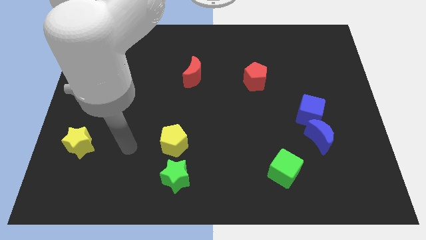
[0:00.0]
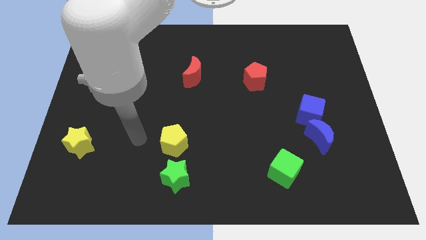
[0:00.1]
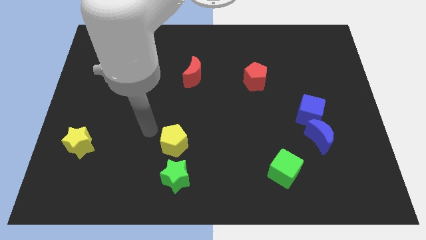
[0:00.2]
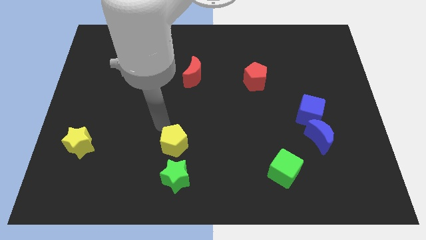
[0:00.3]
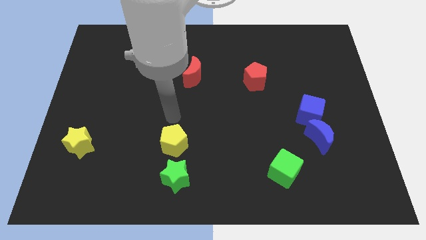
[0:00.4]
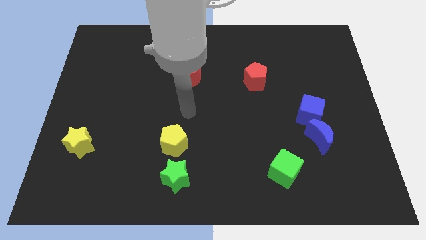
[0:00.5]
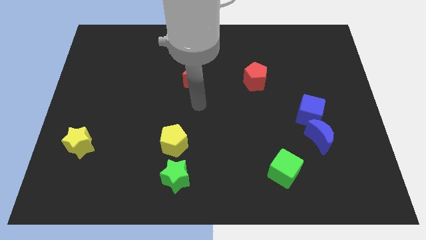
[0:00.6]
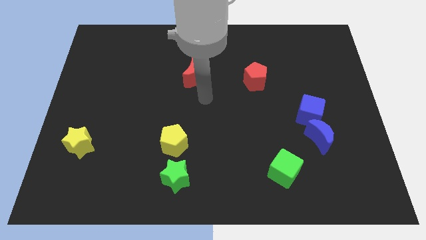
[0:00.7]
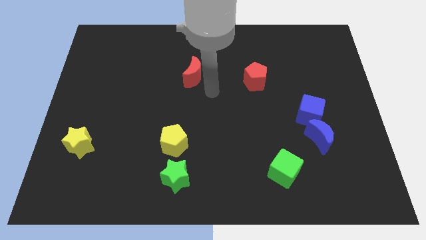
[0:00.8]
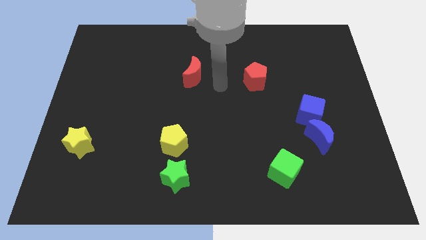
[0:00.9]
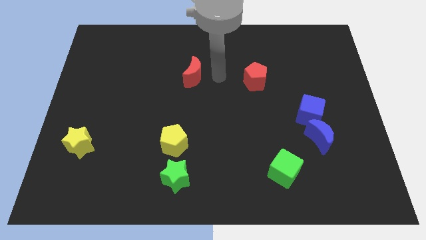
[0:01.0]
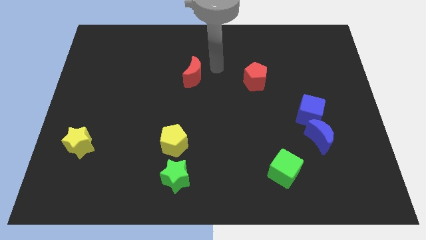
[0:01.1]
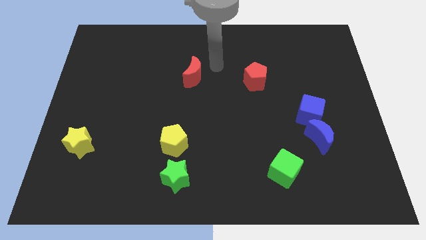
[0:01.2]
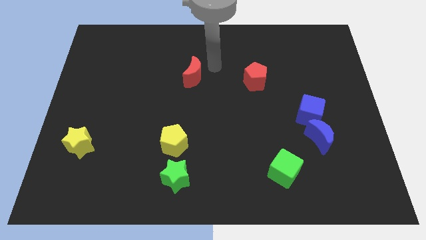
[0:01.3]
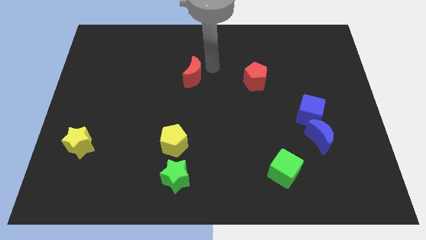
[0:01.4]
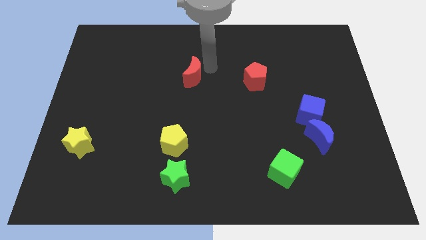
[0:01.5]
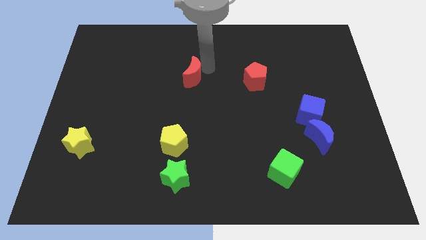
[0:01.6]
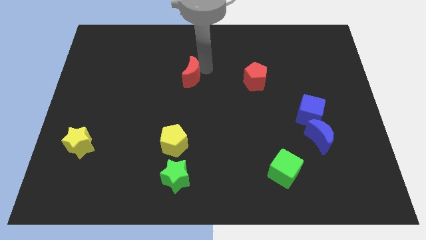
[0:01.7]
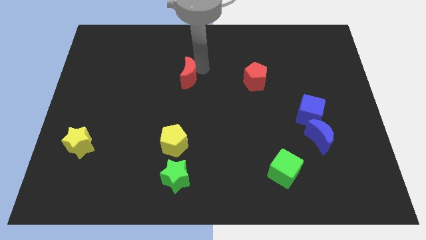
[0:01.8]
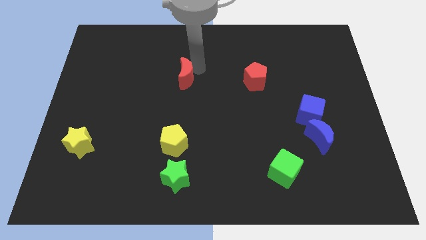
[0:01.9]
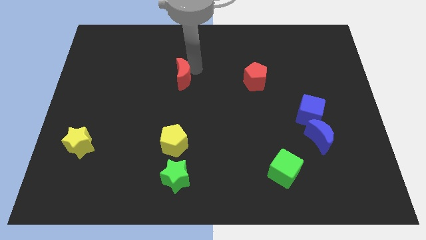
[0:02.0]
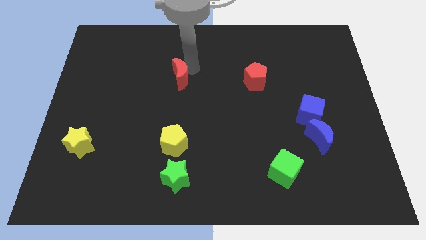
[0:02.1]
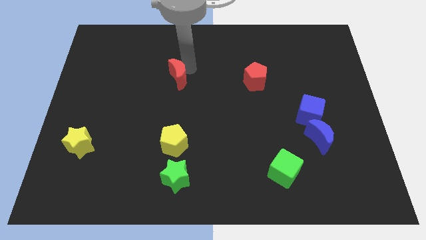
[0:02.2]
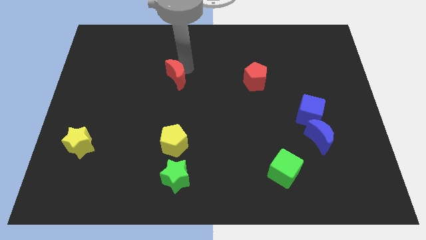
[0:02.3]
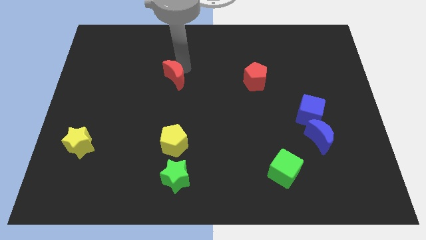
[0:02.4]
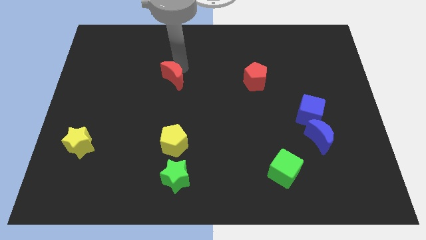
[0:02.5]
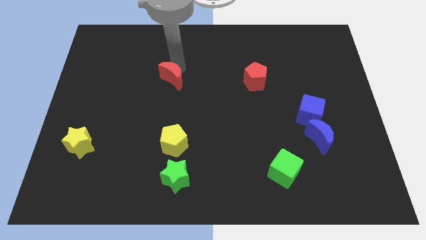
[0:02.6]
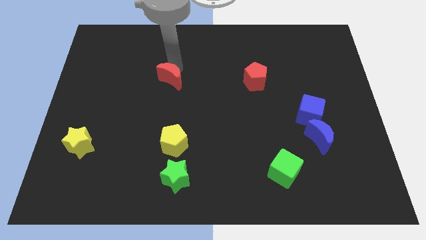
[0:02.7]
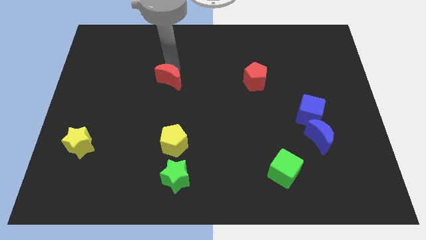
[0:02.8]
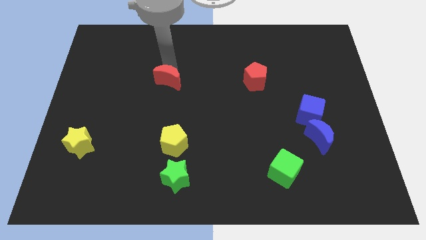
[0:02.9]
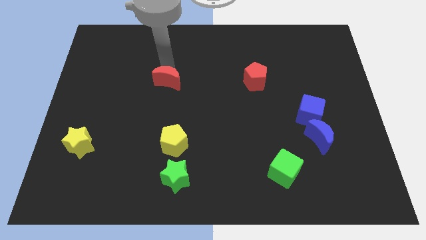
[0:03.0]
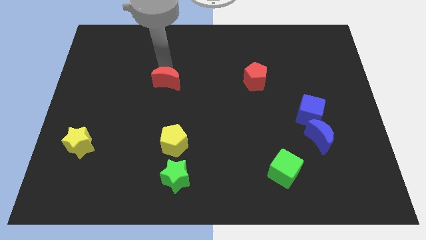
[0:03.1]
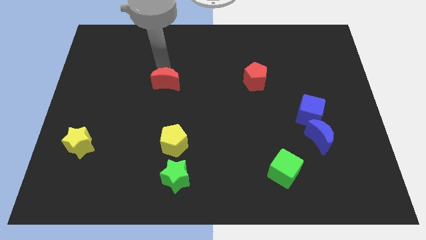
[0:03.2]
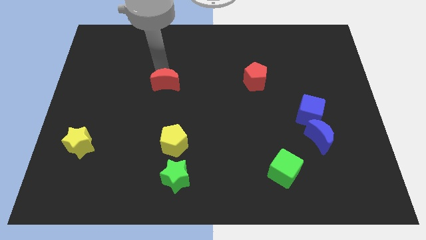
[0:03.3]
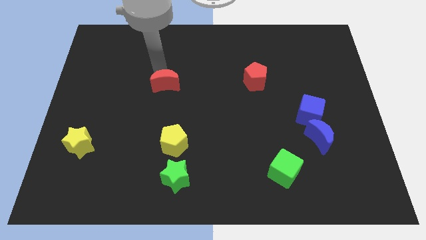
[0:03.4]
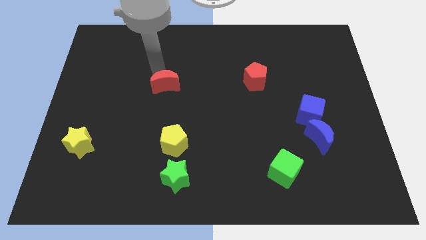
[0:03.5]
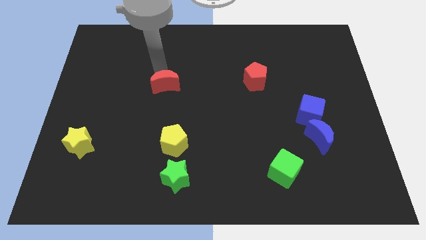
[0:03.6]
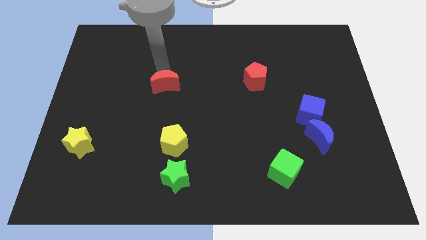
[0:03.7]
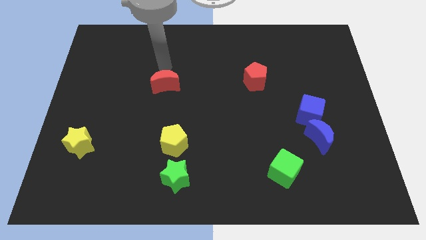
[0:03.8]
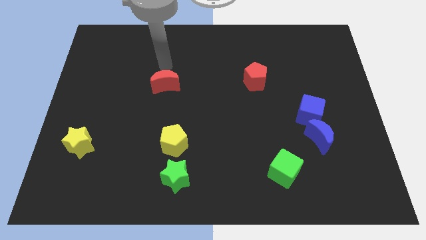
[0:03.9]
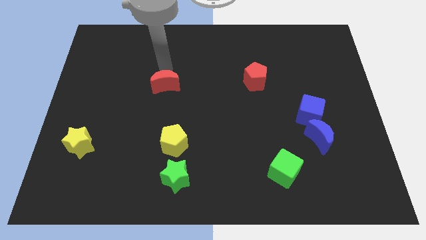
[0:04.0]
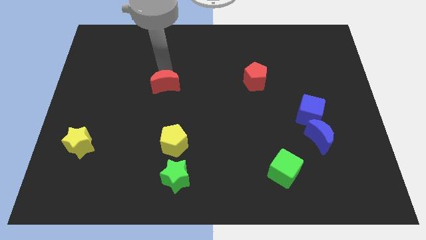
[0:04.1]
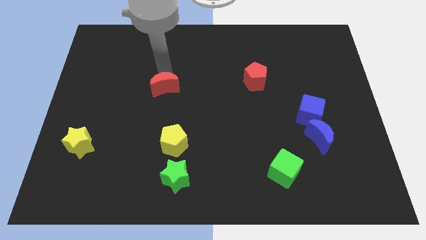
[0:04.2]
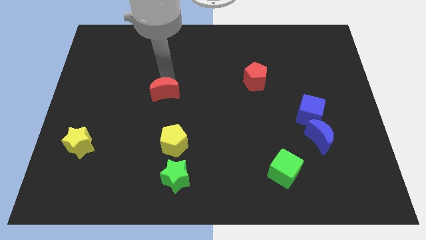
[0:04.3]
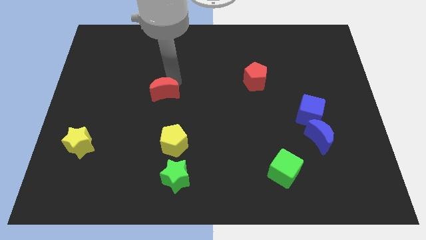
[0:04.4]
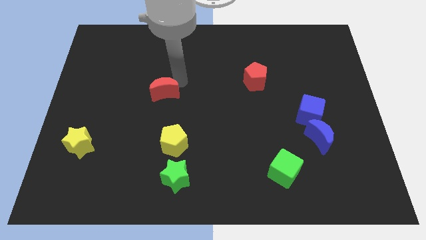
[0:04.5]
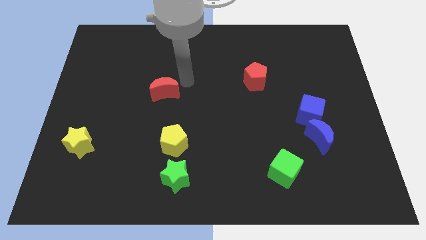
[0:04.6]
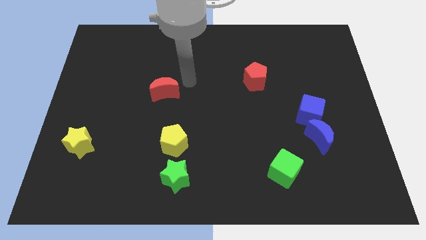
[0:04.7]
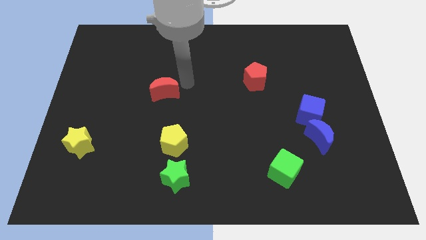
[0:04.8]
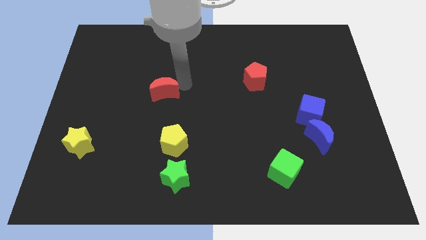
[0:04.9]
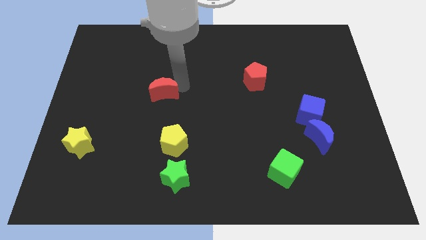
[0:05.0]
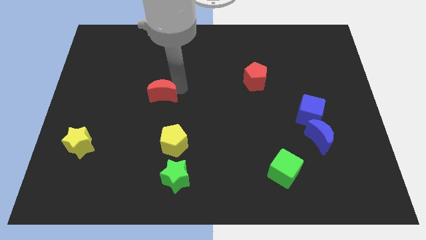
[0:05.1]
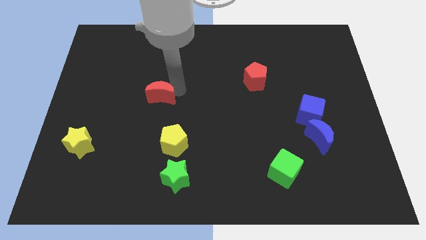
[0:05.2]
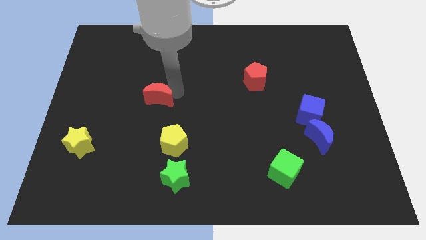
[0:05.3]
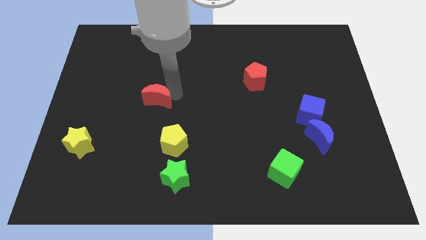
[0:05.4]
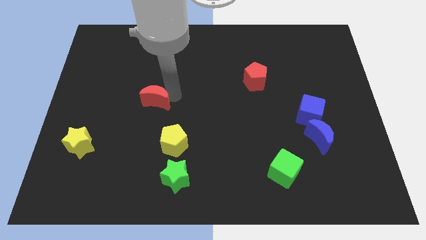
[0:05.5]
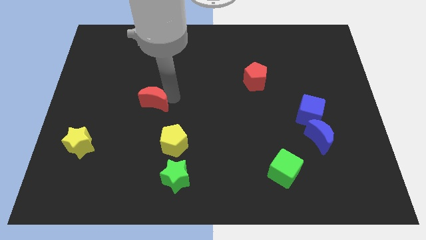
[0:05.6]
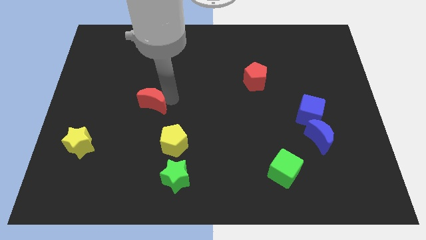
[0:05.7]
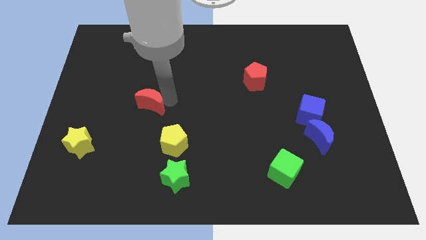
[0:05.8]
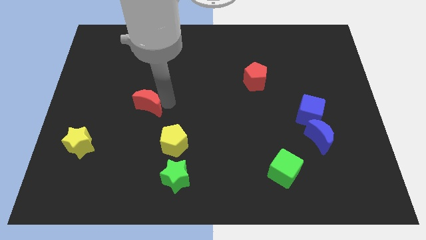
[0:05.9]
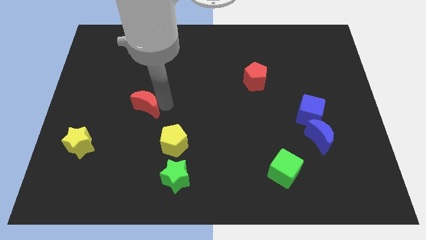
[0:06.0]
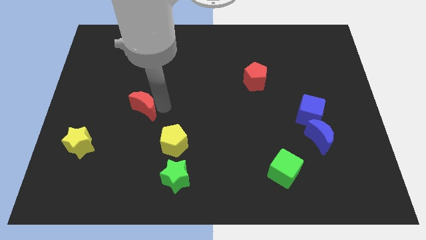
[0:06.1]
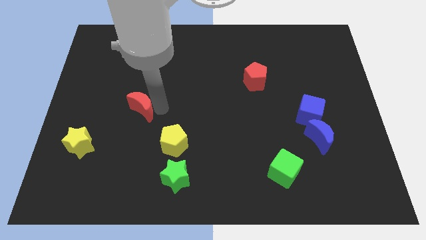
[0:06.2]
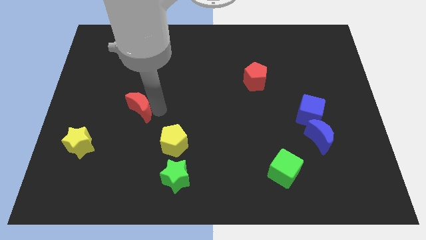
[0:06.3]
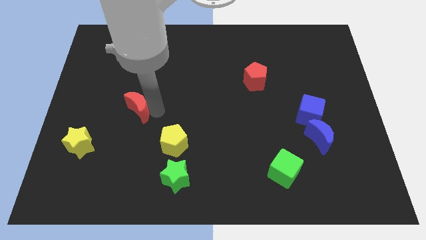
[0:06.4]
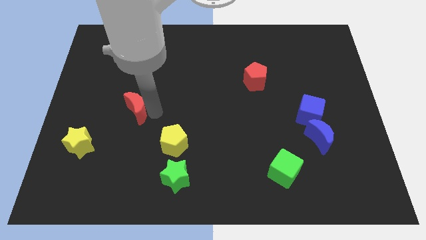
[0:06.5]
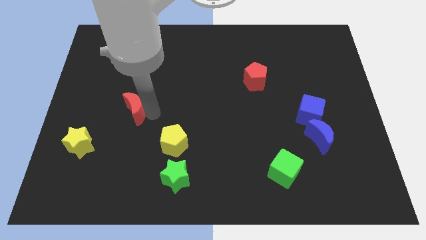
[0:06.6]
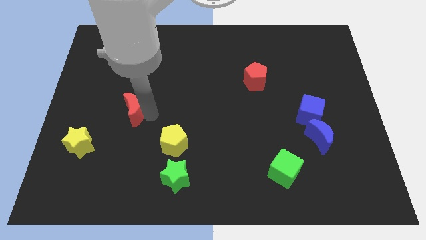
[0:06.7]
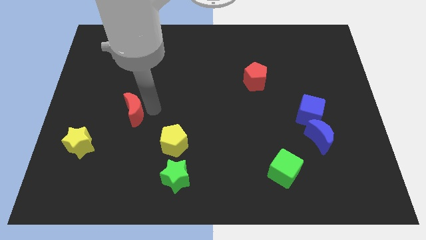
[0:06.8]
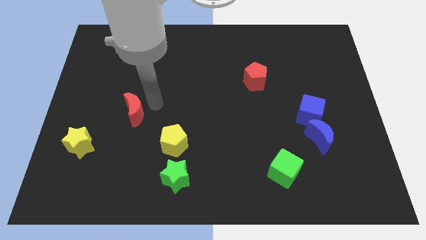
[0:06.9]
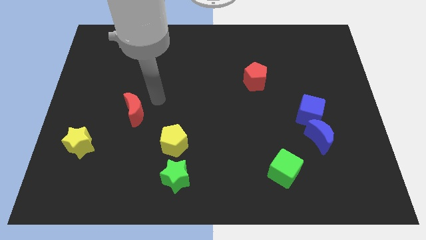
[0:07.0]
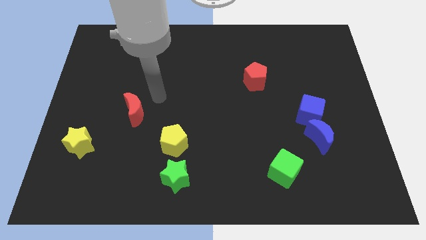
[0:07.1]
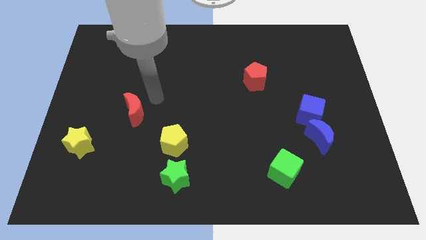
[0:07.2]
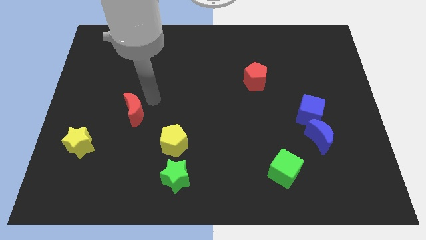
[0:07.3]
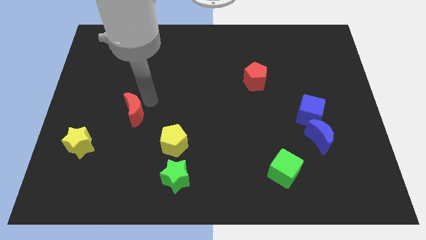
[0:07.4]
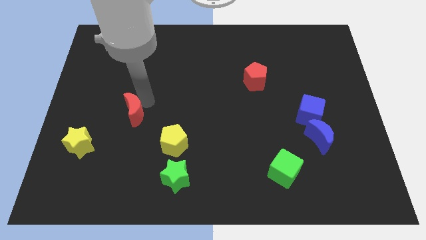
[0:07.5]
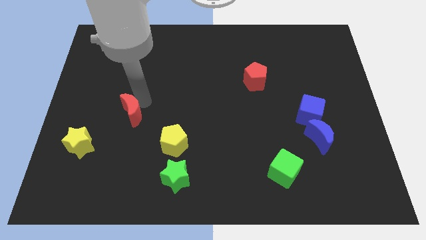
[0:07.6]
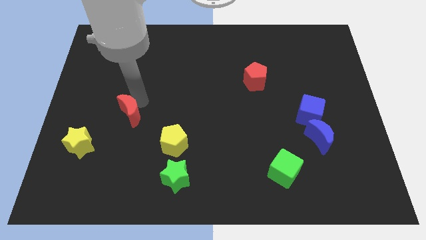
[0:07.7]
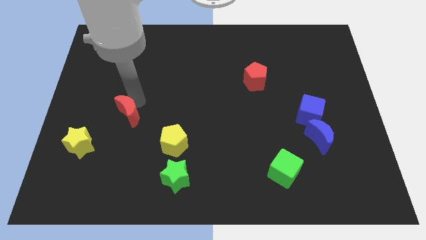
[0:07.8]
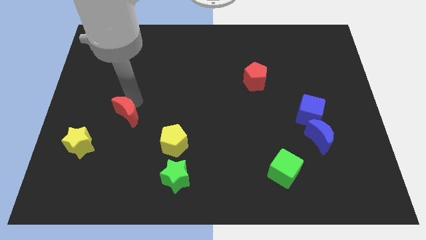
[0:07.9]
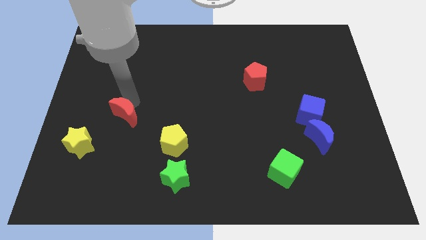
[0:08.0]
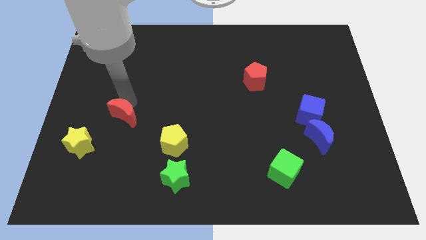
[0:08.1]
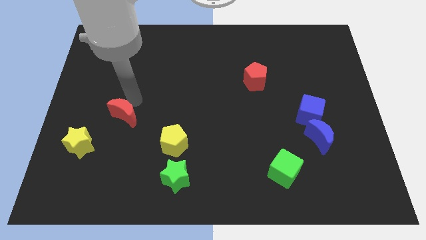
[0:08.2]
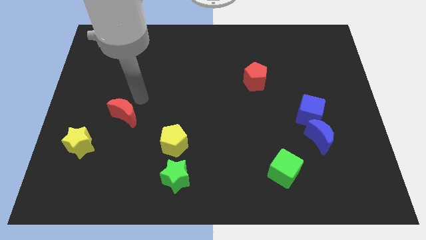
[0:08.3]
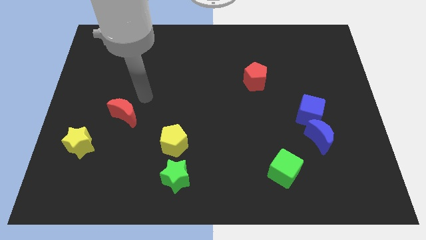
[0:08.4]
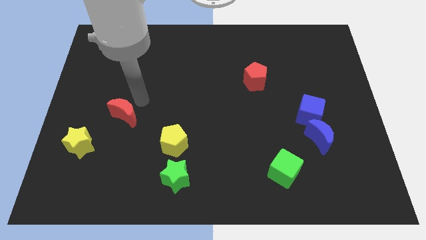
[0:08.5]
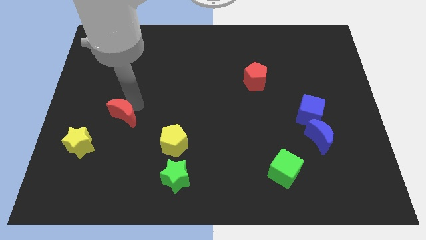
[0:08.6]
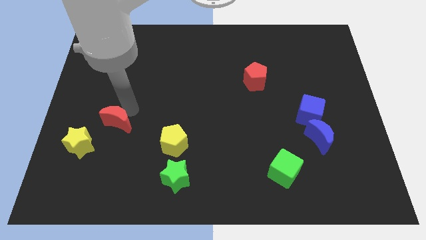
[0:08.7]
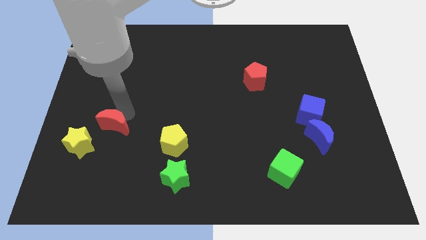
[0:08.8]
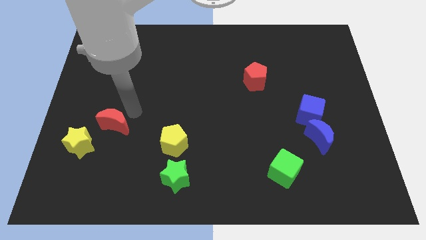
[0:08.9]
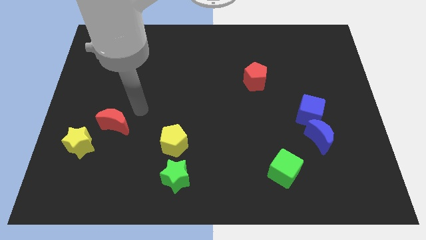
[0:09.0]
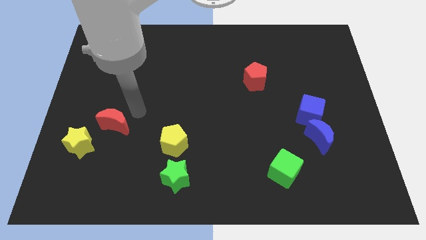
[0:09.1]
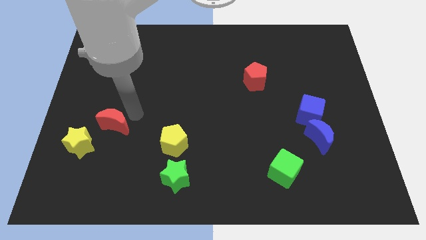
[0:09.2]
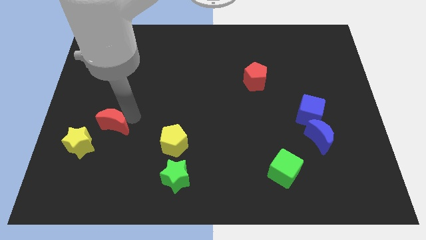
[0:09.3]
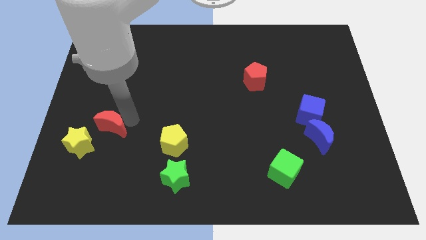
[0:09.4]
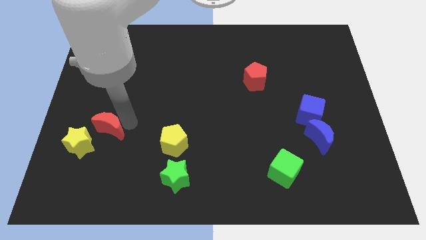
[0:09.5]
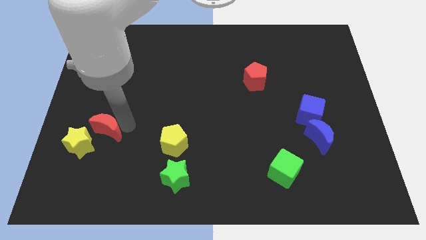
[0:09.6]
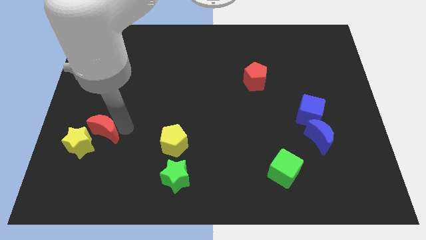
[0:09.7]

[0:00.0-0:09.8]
move the red moon to the yellow star
